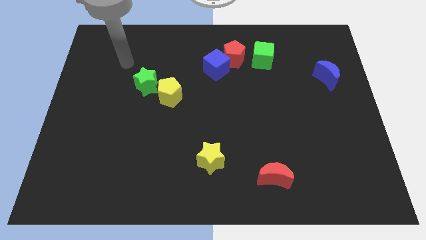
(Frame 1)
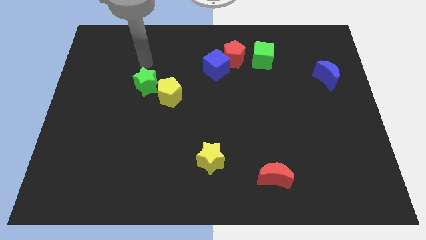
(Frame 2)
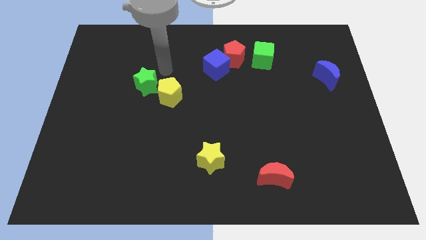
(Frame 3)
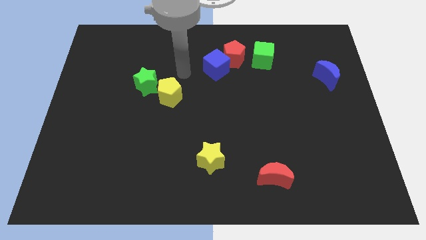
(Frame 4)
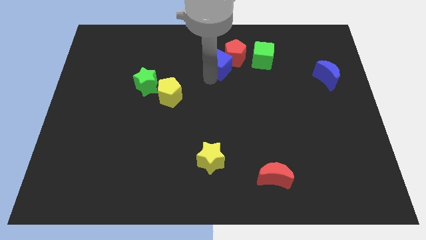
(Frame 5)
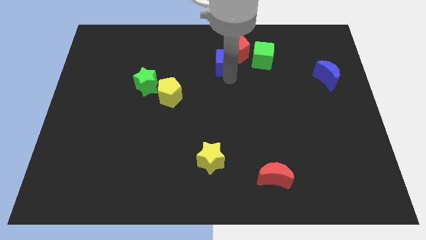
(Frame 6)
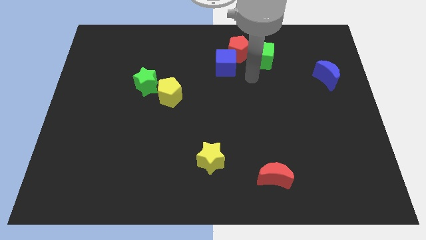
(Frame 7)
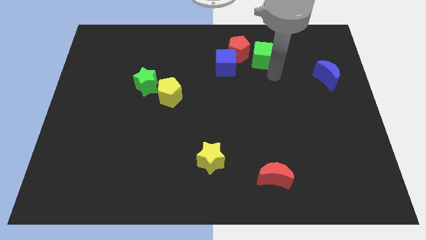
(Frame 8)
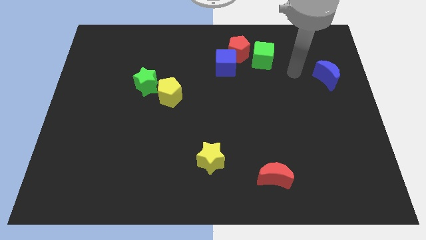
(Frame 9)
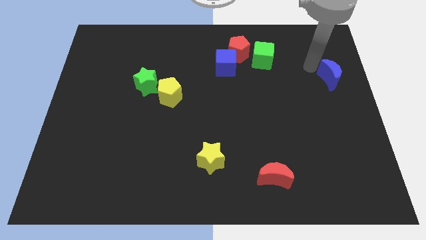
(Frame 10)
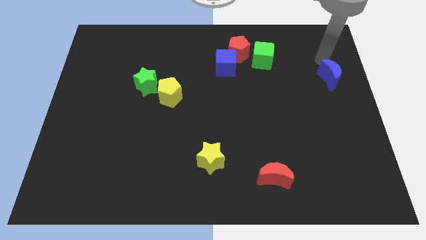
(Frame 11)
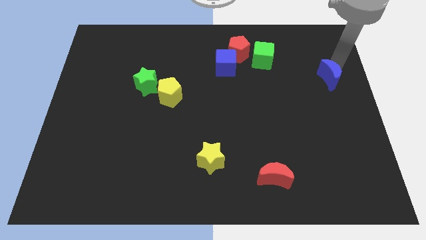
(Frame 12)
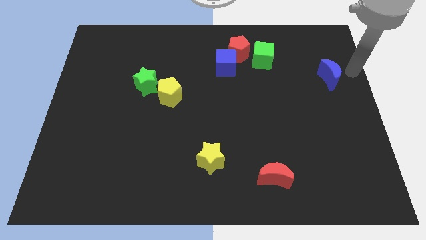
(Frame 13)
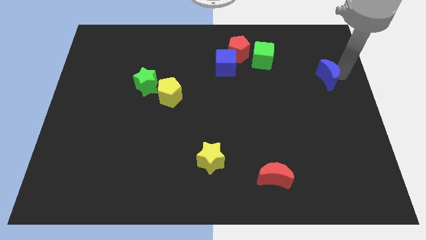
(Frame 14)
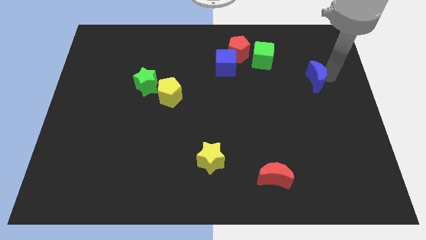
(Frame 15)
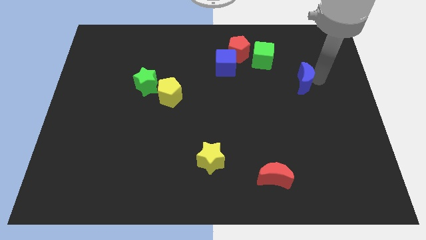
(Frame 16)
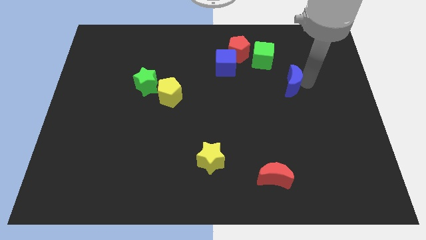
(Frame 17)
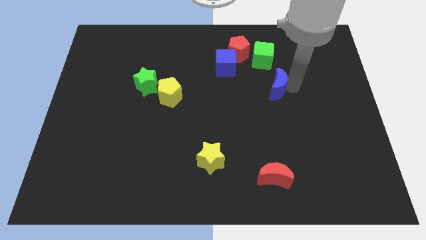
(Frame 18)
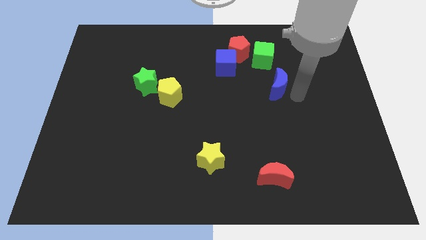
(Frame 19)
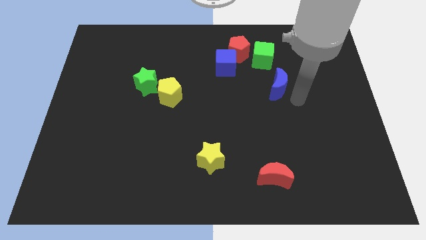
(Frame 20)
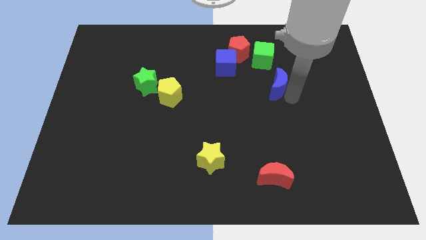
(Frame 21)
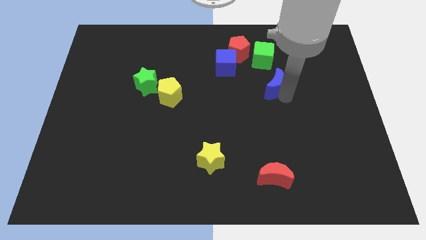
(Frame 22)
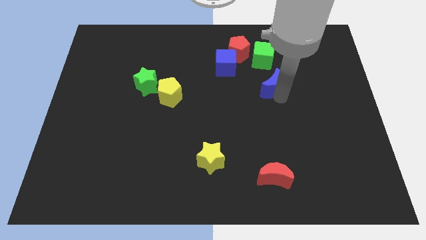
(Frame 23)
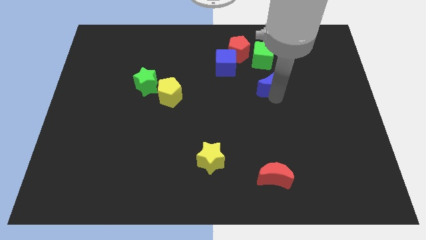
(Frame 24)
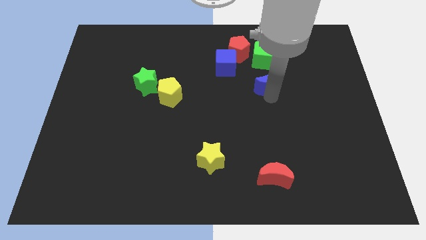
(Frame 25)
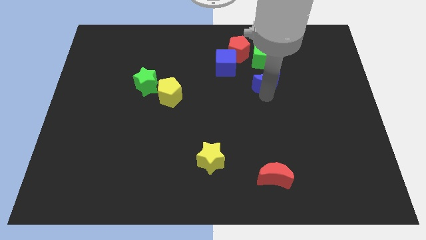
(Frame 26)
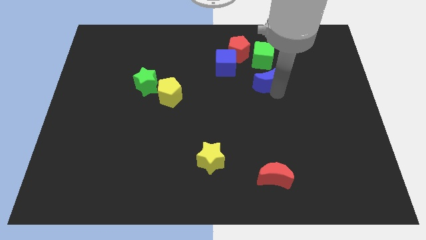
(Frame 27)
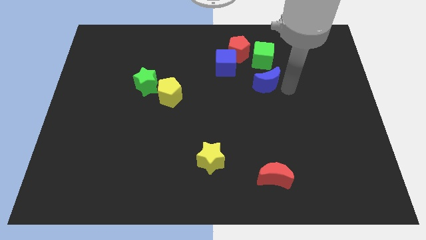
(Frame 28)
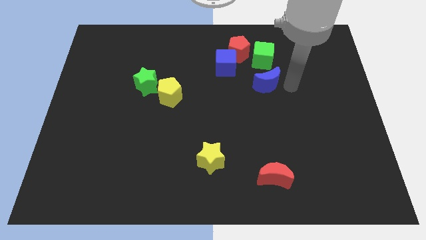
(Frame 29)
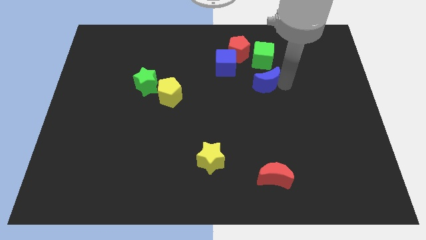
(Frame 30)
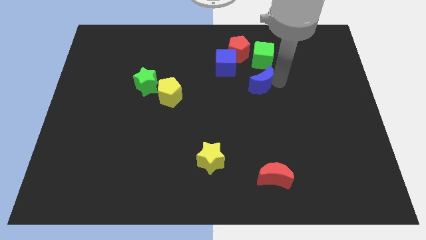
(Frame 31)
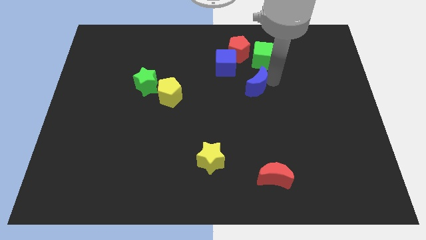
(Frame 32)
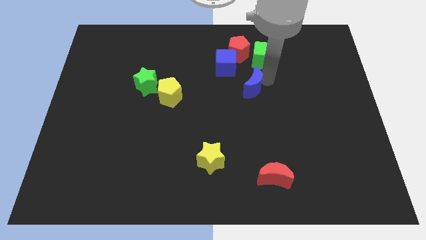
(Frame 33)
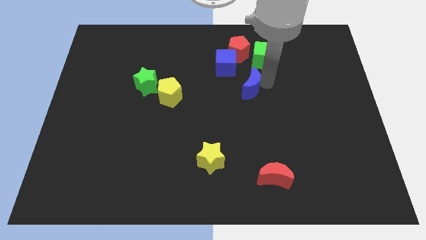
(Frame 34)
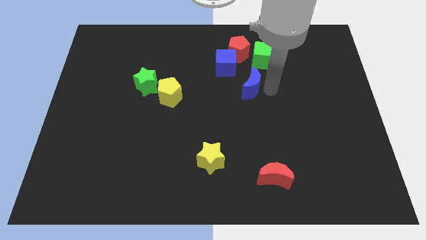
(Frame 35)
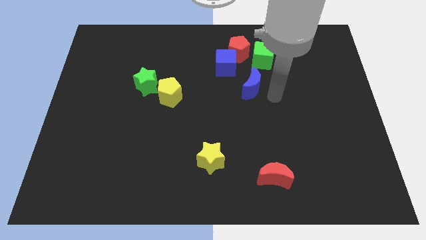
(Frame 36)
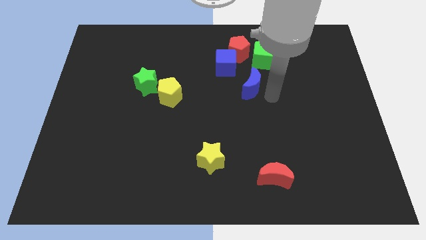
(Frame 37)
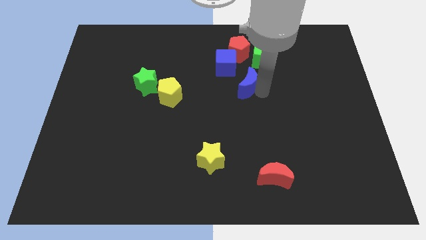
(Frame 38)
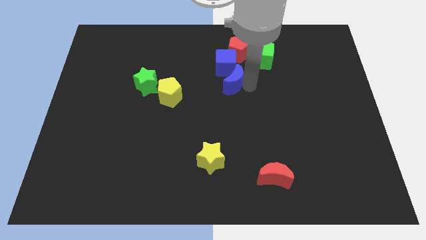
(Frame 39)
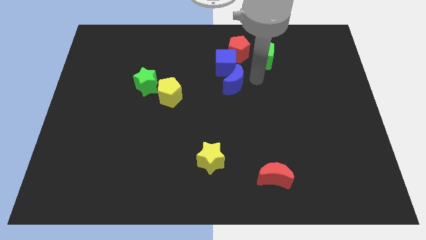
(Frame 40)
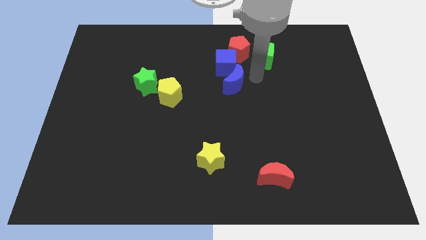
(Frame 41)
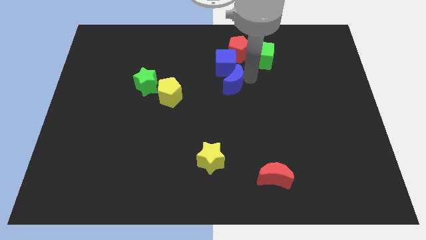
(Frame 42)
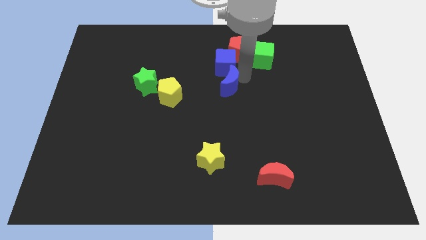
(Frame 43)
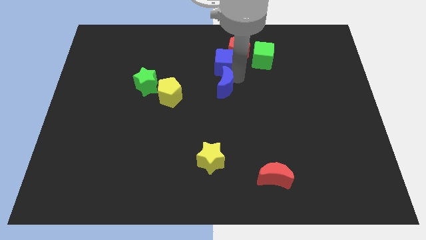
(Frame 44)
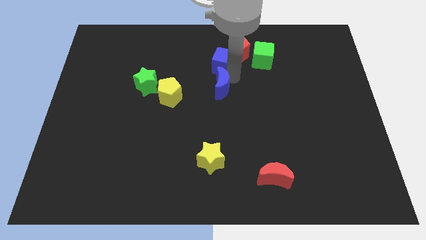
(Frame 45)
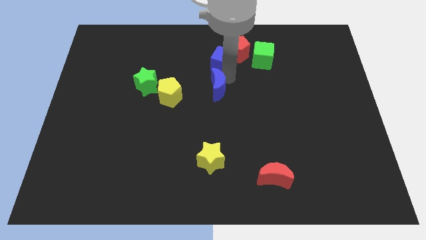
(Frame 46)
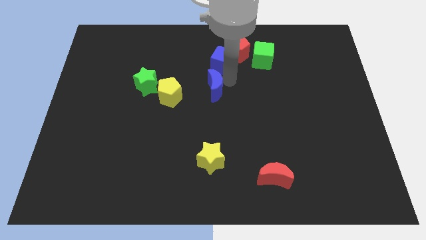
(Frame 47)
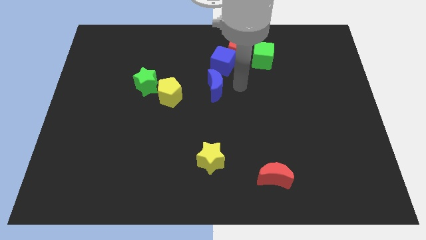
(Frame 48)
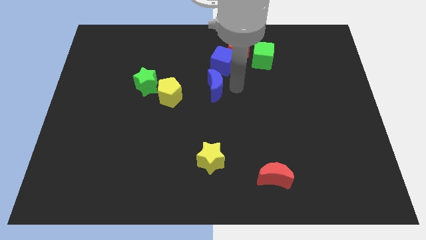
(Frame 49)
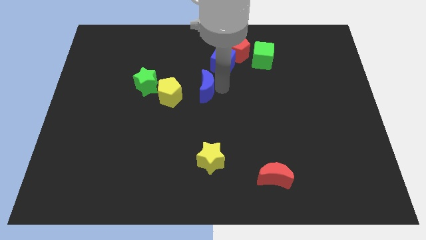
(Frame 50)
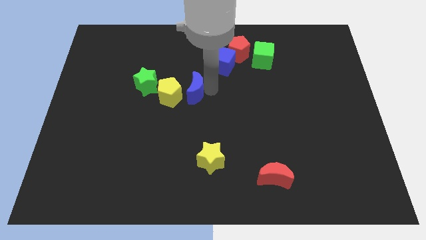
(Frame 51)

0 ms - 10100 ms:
push the blue moon close to the yellow pentagon

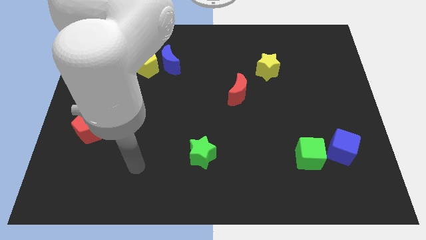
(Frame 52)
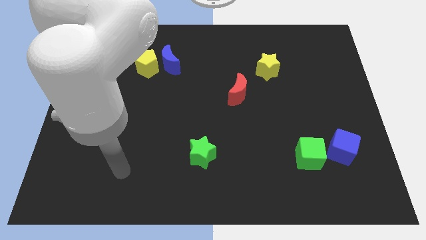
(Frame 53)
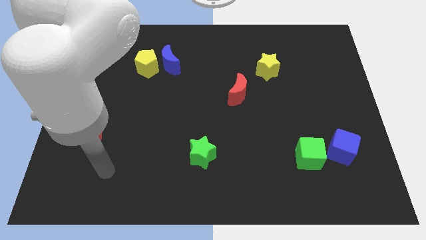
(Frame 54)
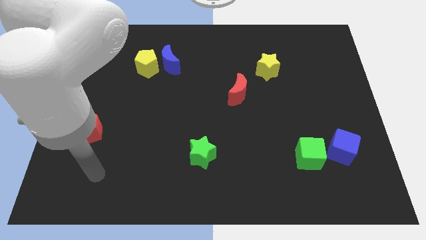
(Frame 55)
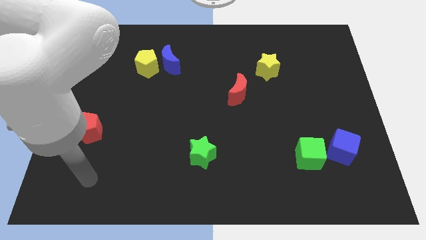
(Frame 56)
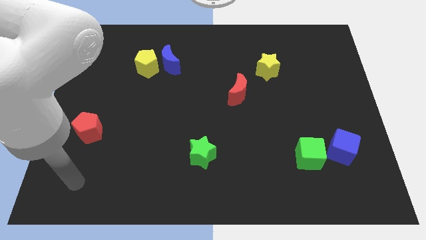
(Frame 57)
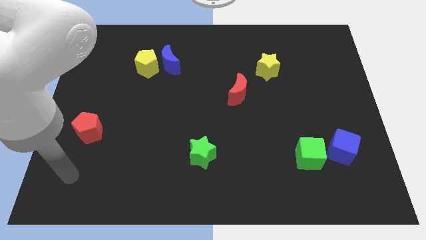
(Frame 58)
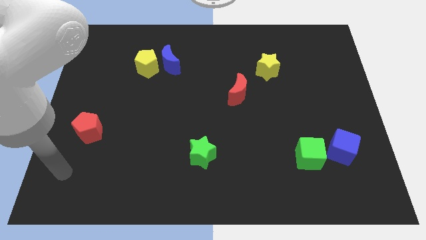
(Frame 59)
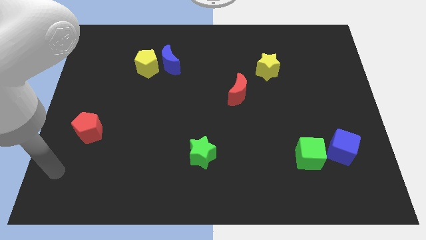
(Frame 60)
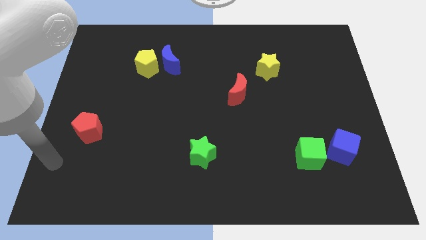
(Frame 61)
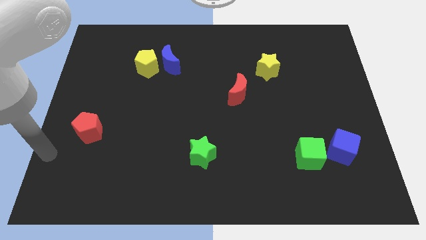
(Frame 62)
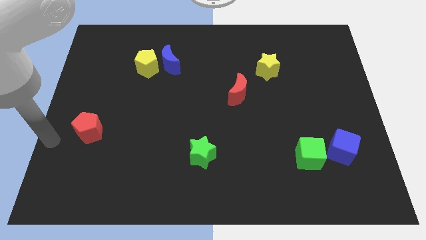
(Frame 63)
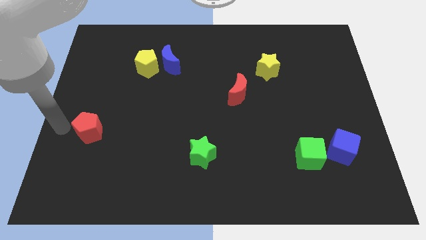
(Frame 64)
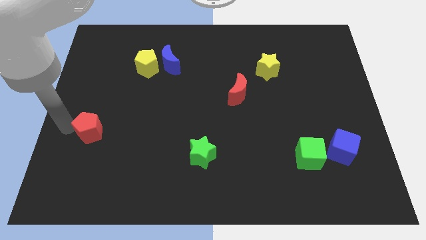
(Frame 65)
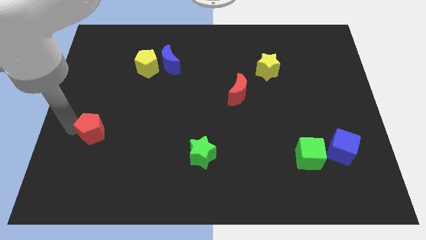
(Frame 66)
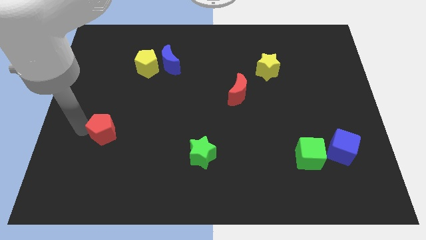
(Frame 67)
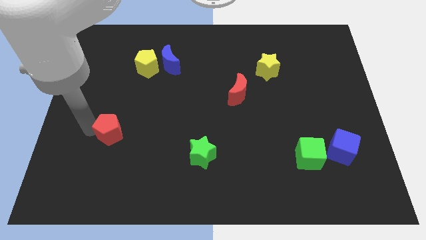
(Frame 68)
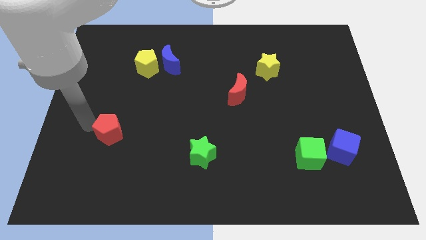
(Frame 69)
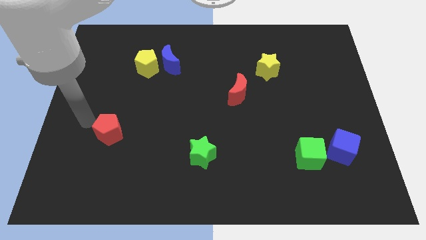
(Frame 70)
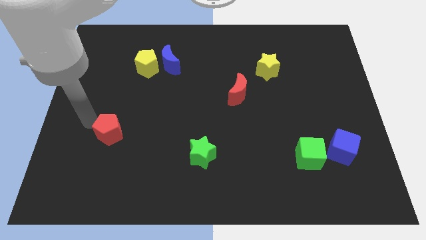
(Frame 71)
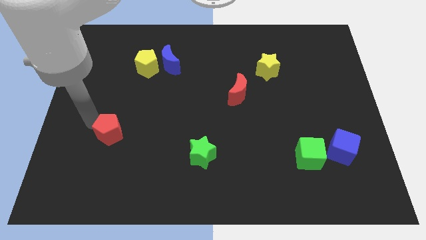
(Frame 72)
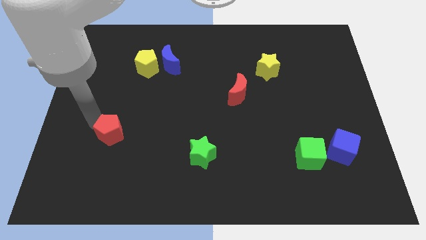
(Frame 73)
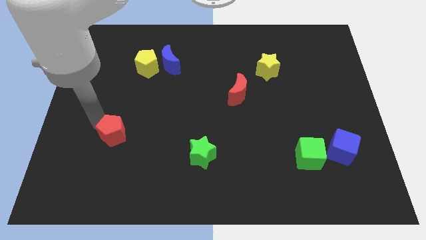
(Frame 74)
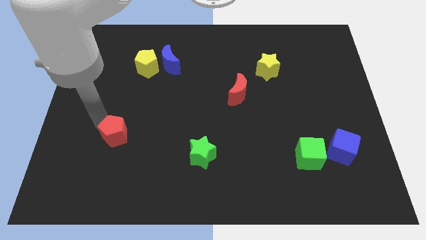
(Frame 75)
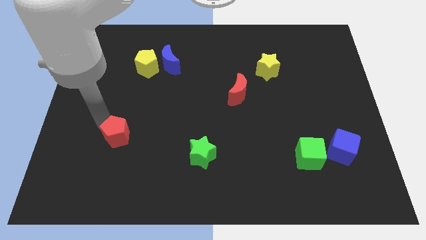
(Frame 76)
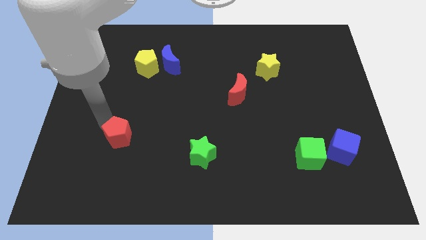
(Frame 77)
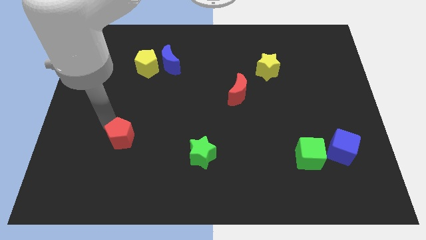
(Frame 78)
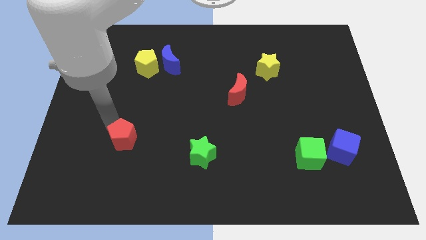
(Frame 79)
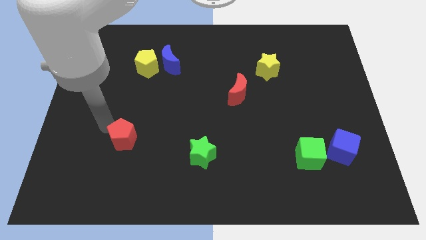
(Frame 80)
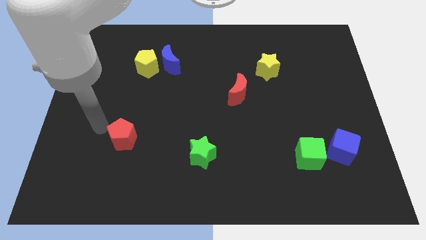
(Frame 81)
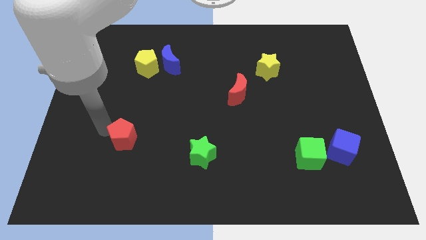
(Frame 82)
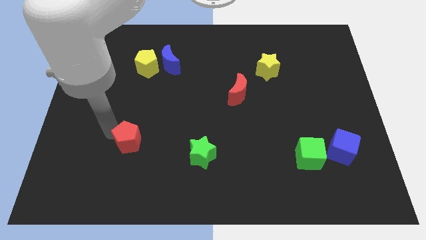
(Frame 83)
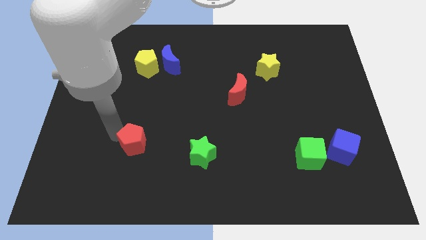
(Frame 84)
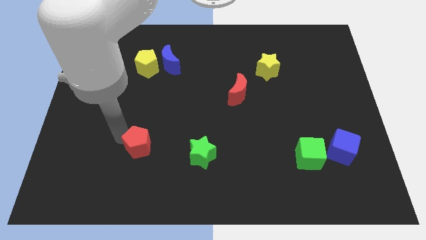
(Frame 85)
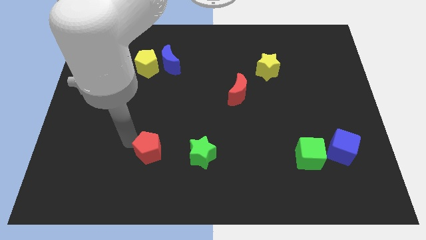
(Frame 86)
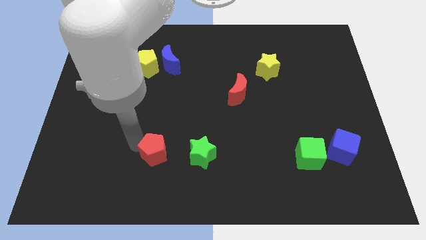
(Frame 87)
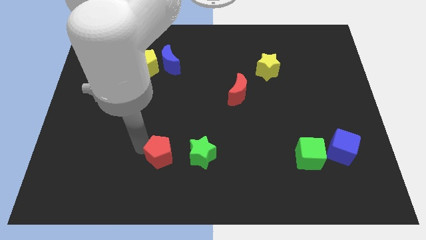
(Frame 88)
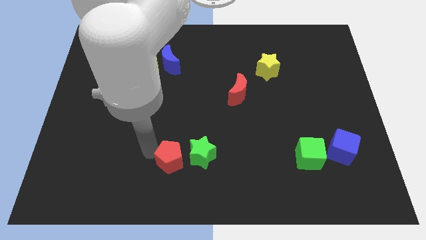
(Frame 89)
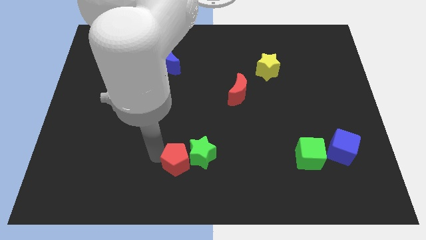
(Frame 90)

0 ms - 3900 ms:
put the red pentagon next to the green star
